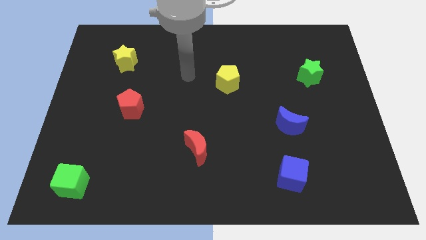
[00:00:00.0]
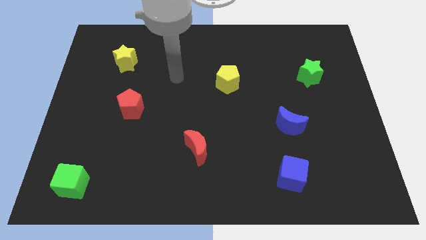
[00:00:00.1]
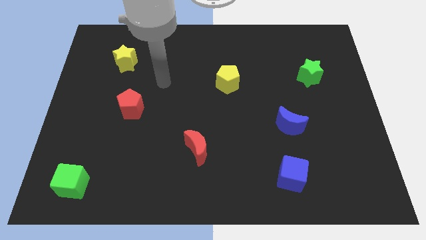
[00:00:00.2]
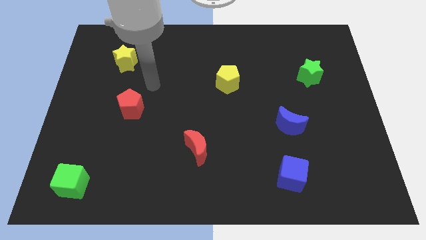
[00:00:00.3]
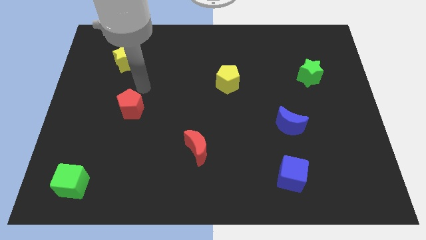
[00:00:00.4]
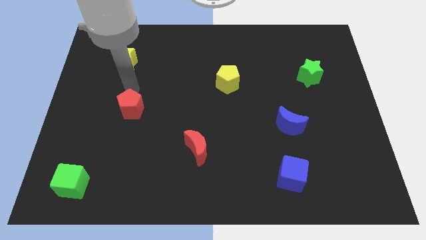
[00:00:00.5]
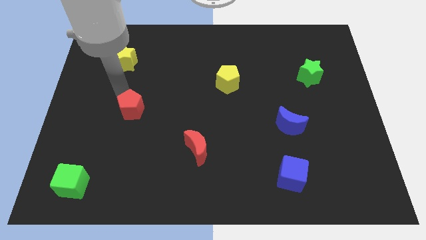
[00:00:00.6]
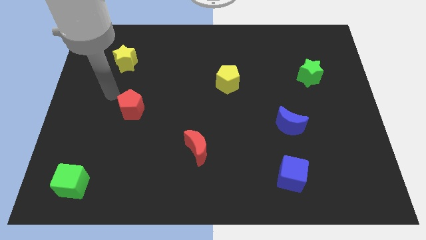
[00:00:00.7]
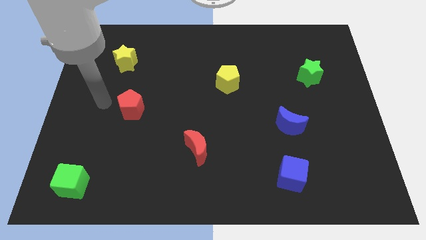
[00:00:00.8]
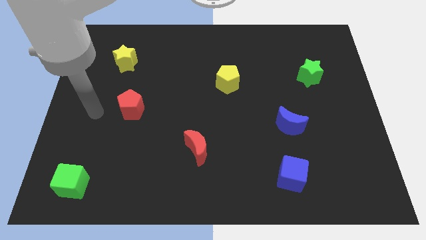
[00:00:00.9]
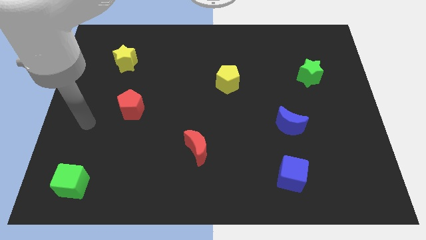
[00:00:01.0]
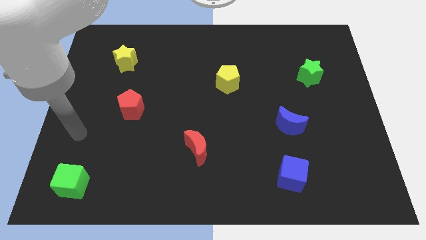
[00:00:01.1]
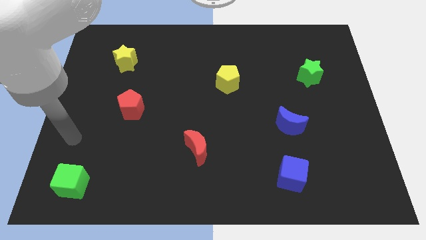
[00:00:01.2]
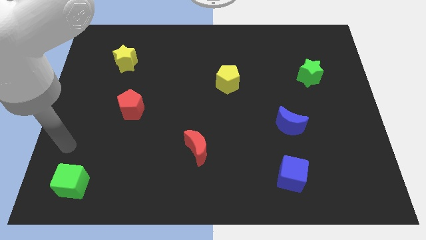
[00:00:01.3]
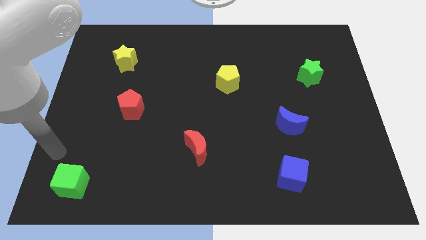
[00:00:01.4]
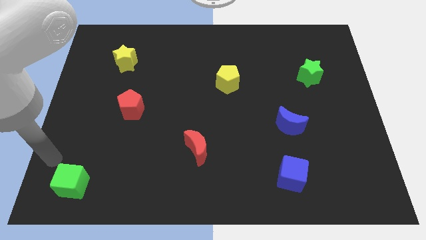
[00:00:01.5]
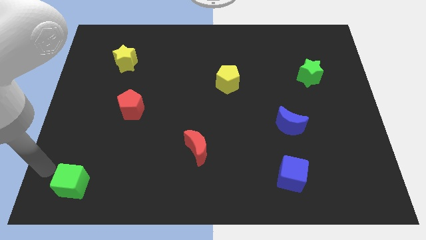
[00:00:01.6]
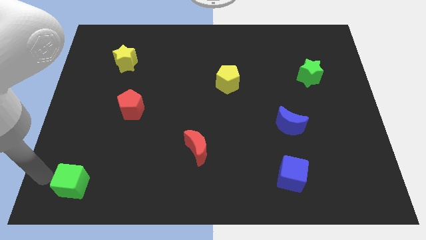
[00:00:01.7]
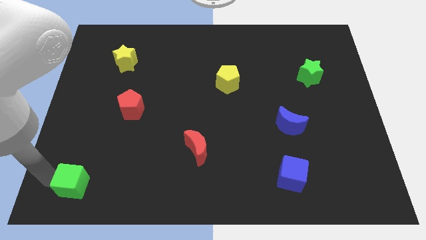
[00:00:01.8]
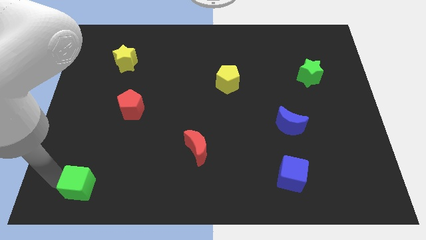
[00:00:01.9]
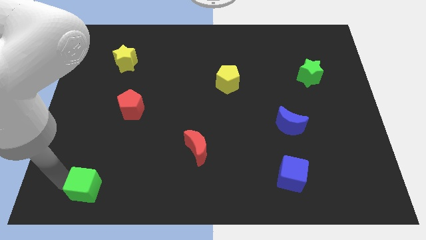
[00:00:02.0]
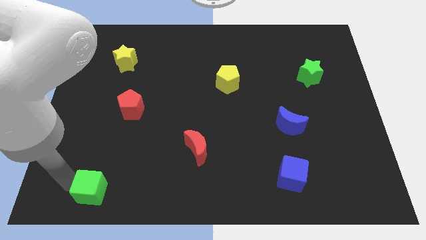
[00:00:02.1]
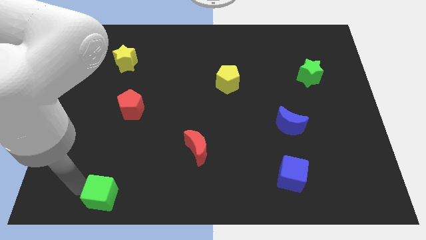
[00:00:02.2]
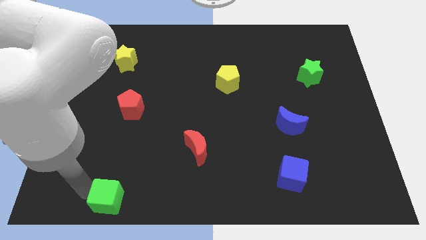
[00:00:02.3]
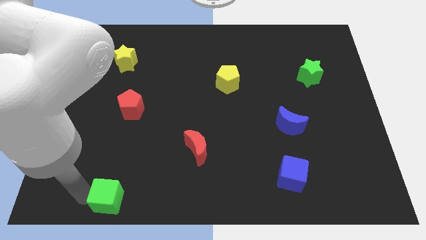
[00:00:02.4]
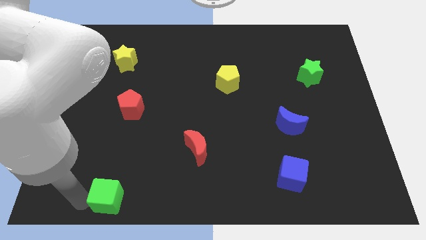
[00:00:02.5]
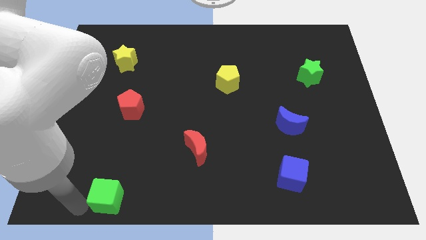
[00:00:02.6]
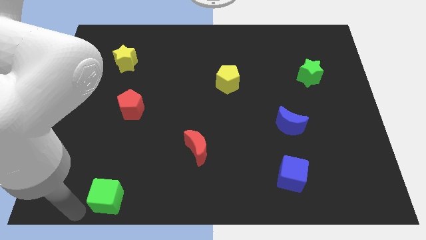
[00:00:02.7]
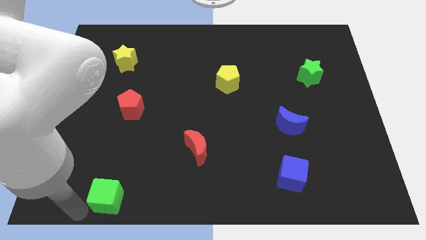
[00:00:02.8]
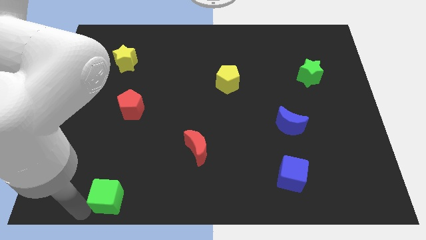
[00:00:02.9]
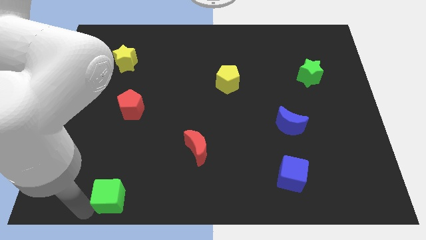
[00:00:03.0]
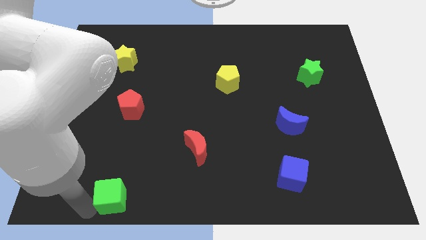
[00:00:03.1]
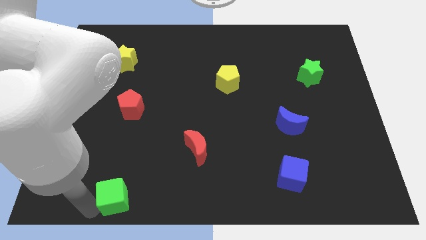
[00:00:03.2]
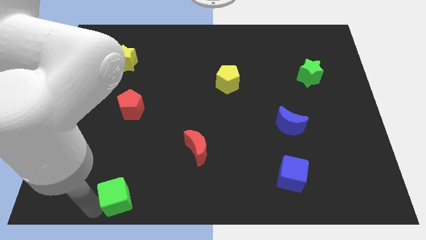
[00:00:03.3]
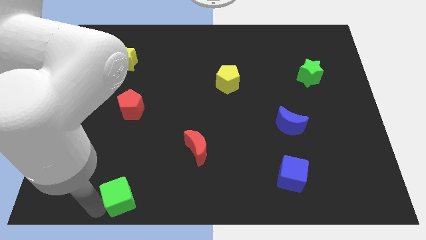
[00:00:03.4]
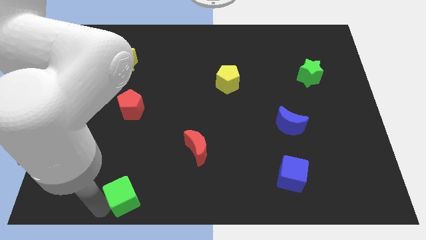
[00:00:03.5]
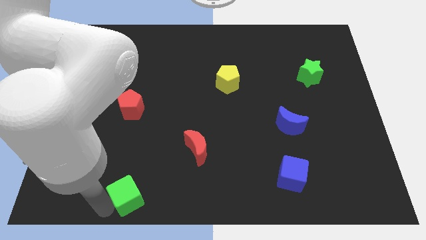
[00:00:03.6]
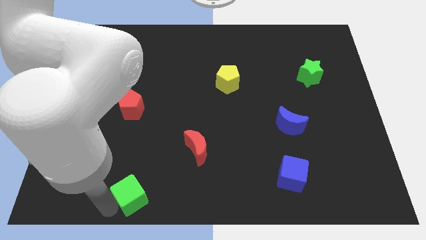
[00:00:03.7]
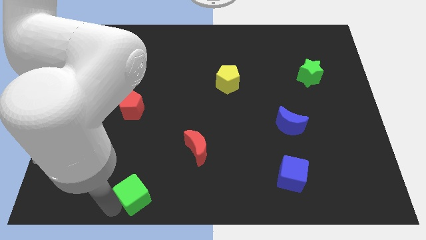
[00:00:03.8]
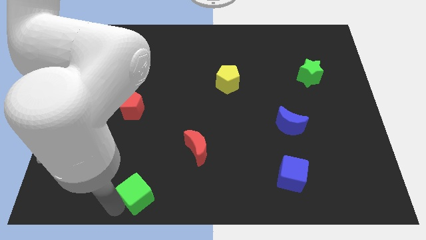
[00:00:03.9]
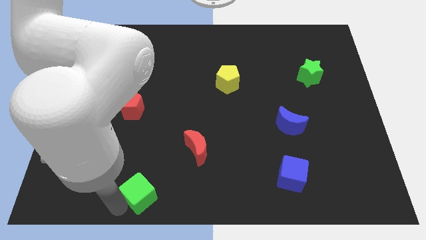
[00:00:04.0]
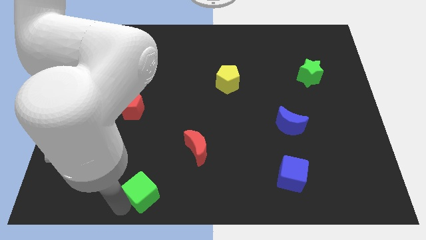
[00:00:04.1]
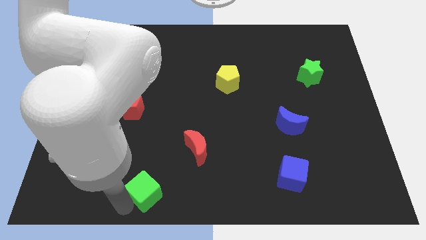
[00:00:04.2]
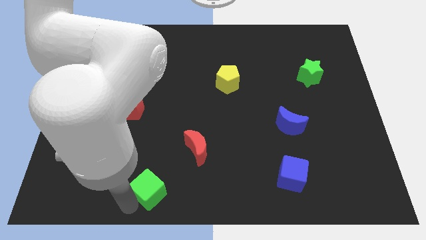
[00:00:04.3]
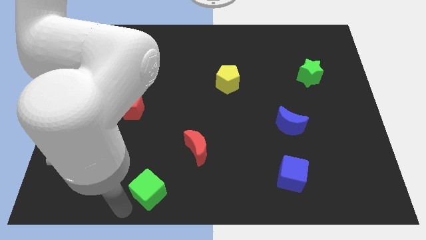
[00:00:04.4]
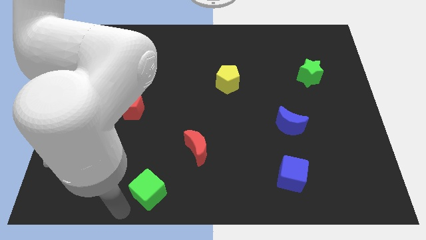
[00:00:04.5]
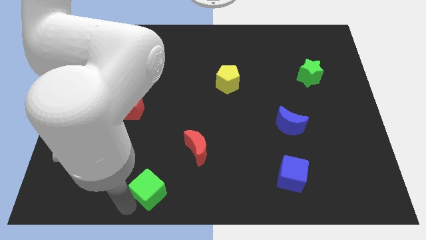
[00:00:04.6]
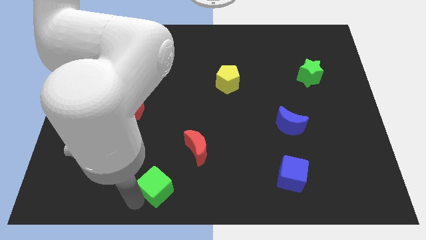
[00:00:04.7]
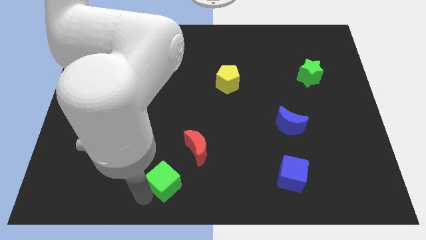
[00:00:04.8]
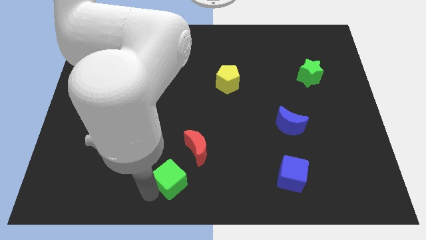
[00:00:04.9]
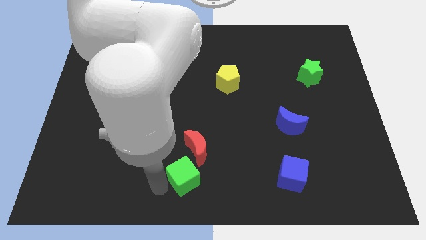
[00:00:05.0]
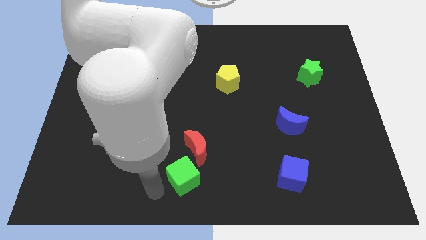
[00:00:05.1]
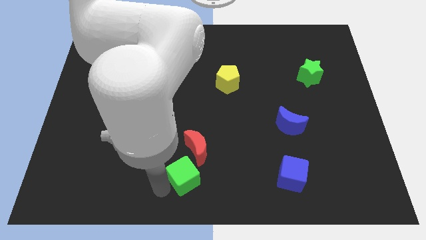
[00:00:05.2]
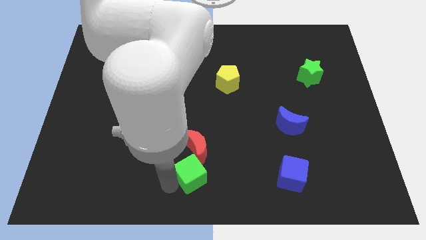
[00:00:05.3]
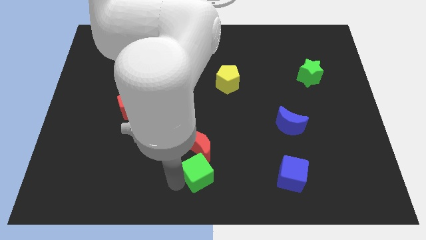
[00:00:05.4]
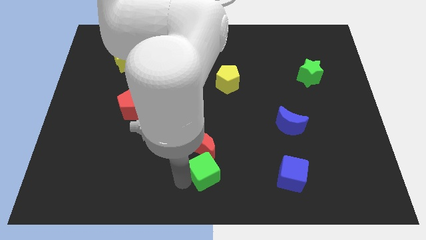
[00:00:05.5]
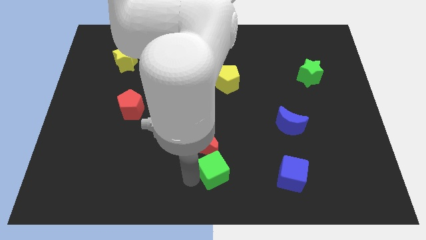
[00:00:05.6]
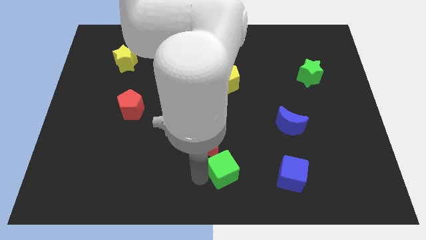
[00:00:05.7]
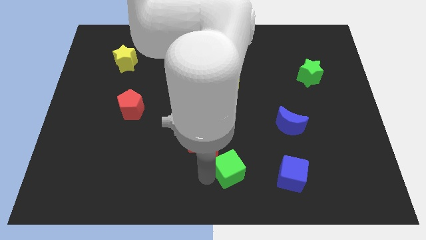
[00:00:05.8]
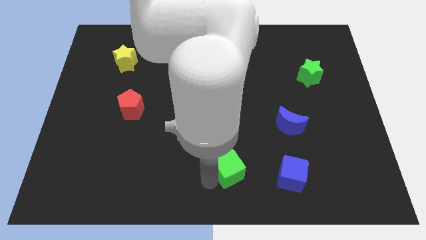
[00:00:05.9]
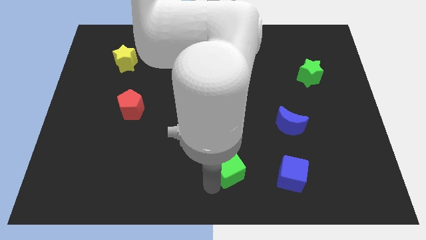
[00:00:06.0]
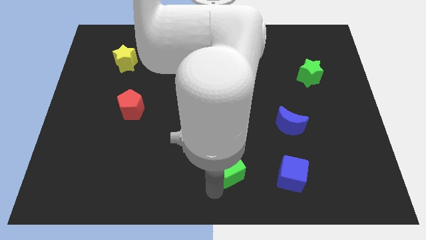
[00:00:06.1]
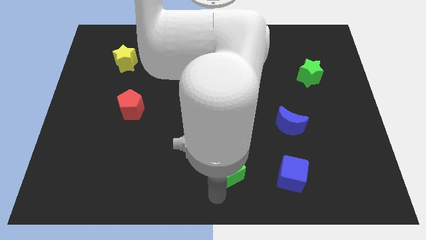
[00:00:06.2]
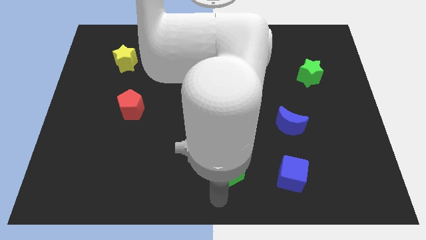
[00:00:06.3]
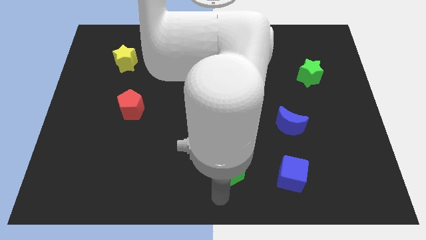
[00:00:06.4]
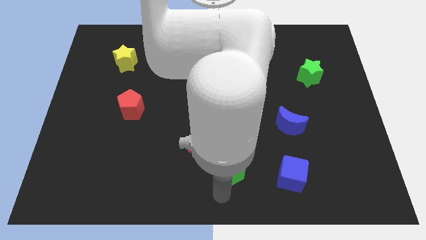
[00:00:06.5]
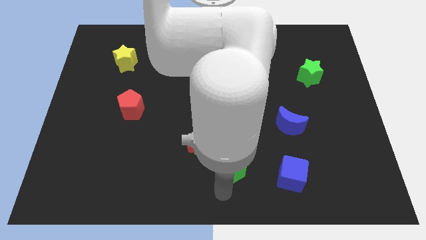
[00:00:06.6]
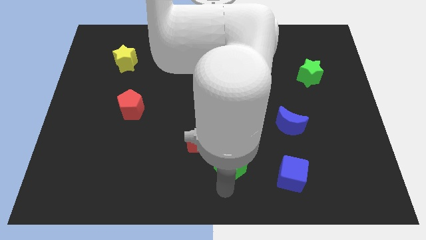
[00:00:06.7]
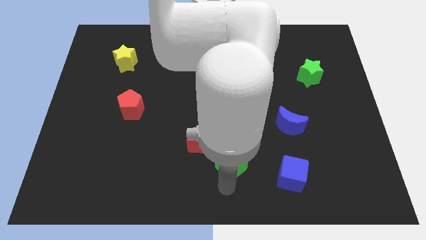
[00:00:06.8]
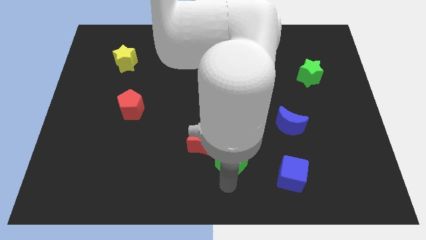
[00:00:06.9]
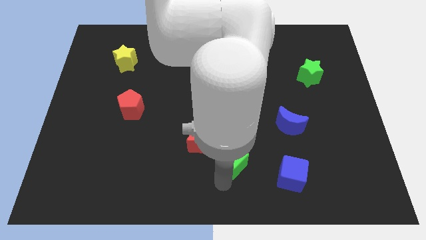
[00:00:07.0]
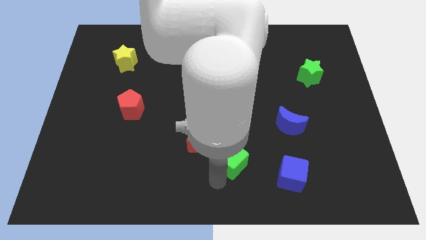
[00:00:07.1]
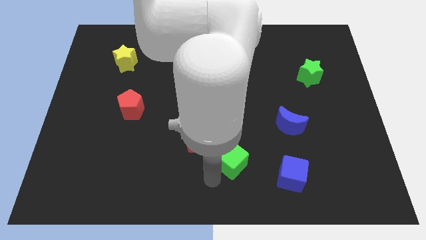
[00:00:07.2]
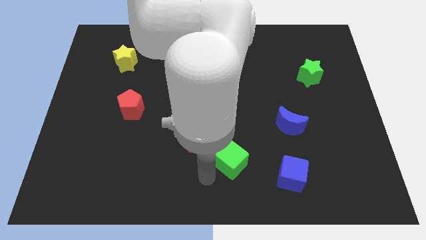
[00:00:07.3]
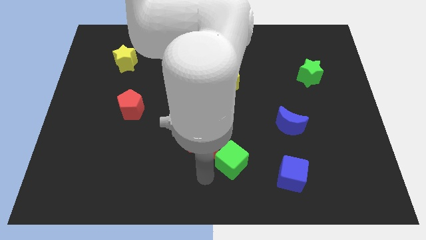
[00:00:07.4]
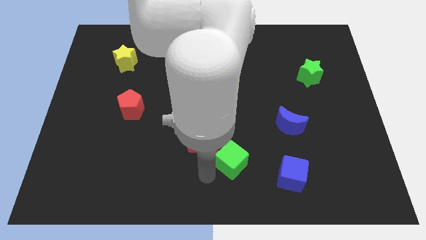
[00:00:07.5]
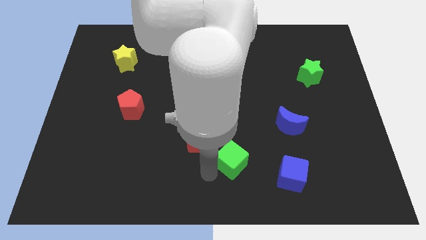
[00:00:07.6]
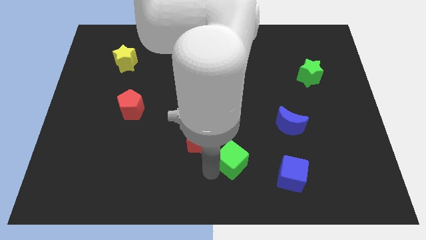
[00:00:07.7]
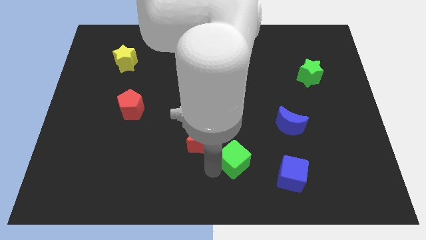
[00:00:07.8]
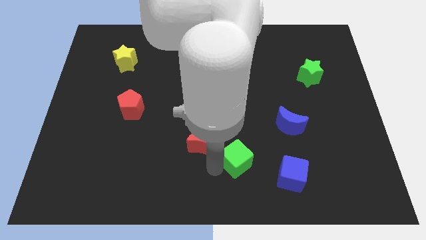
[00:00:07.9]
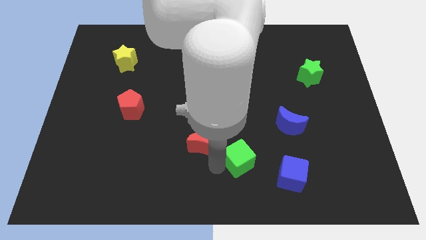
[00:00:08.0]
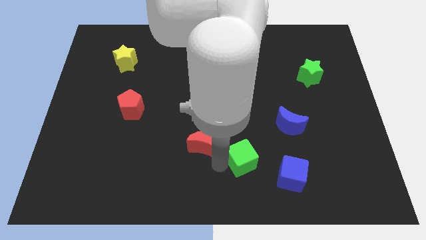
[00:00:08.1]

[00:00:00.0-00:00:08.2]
move the green cube to the top left of the blue cube
